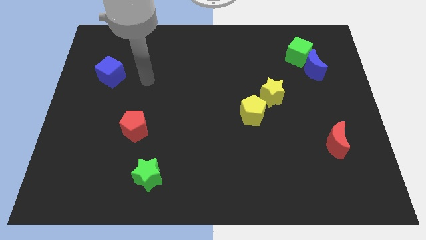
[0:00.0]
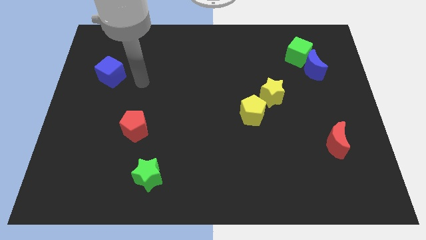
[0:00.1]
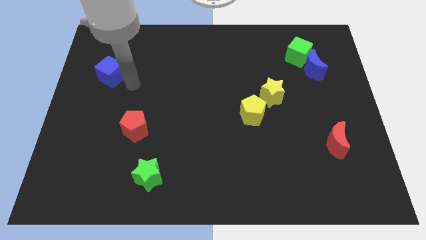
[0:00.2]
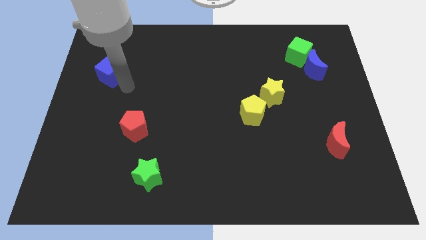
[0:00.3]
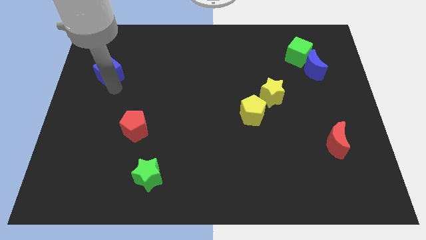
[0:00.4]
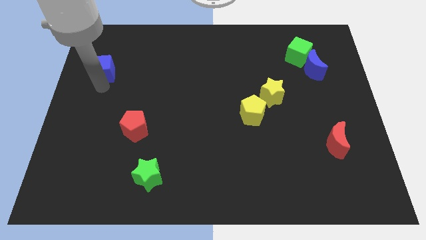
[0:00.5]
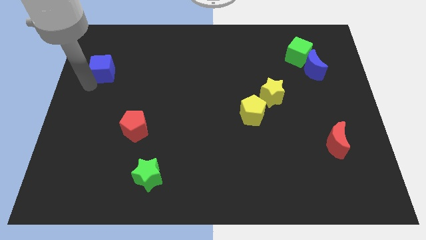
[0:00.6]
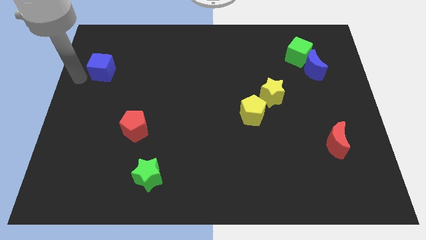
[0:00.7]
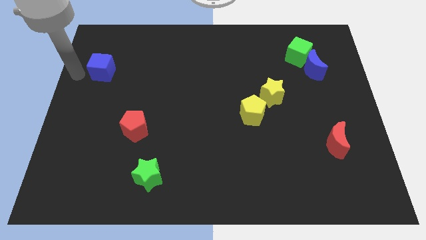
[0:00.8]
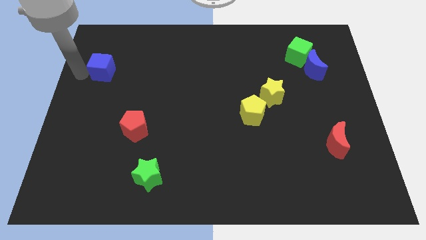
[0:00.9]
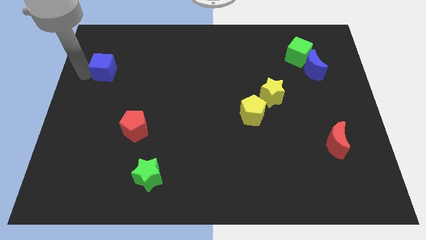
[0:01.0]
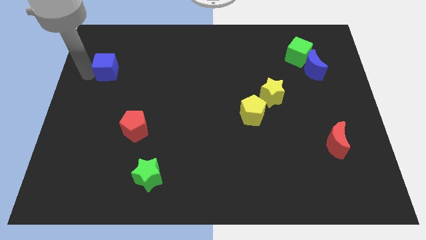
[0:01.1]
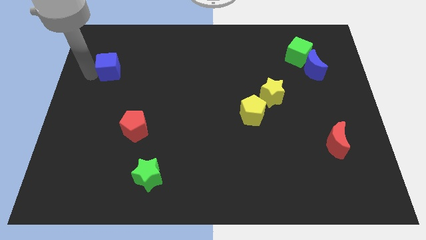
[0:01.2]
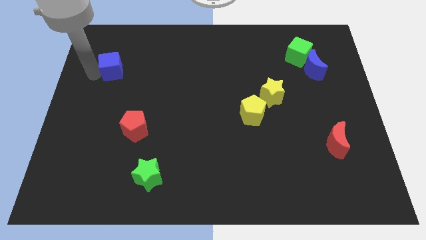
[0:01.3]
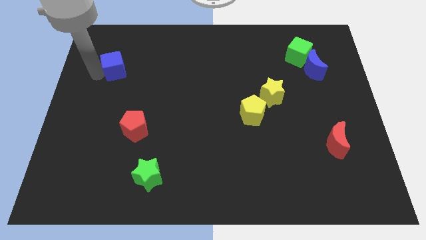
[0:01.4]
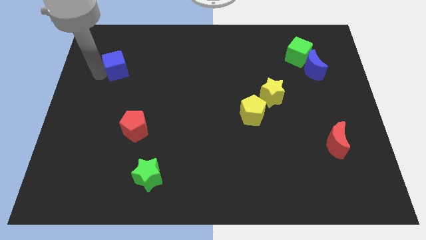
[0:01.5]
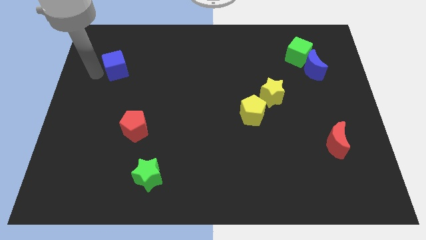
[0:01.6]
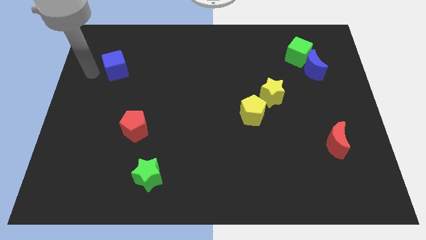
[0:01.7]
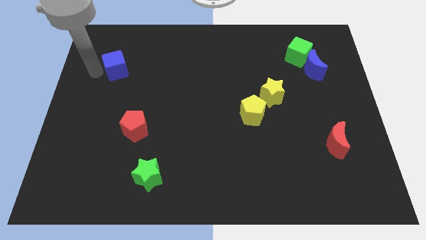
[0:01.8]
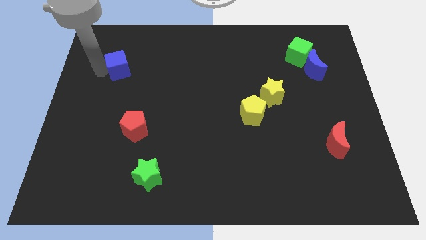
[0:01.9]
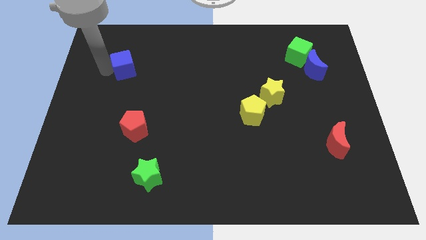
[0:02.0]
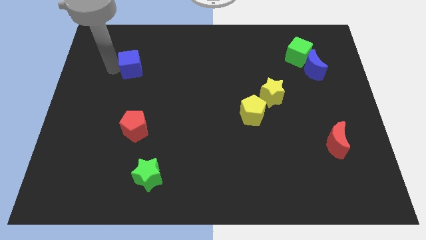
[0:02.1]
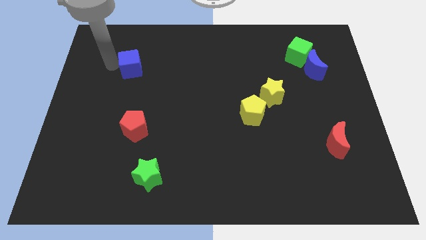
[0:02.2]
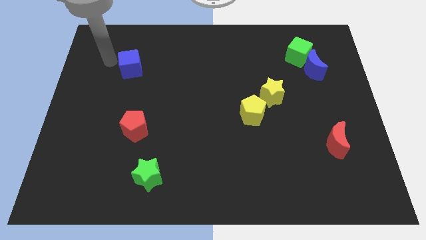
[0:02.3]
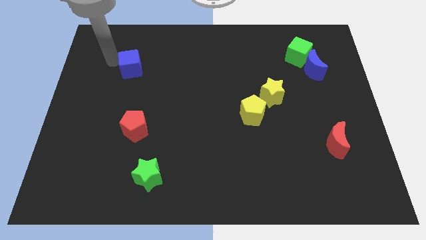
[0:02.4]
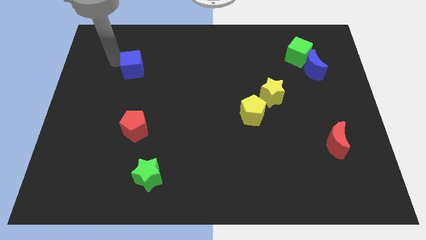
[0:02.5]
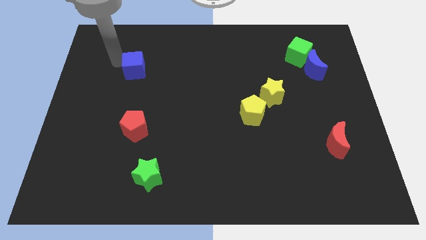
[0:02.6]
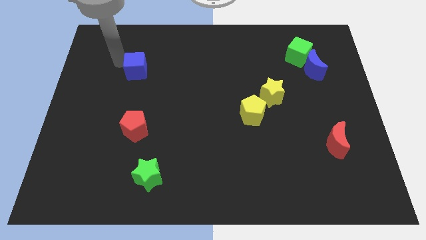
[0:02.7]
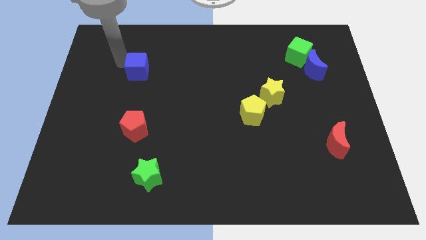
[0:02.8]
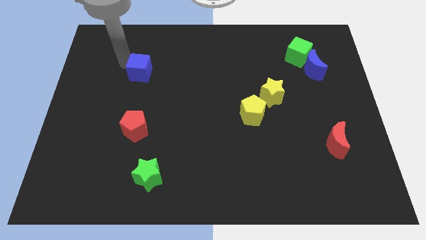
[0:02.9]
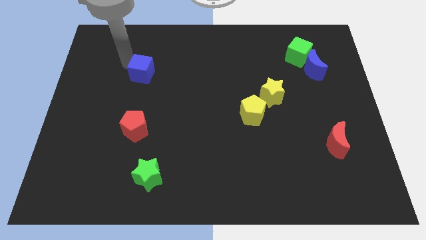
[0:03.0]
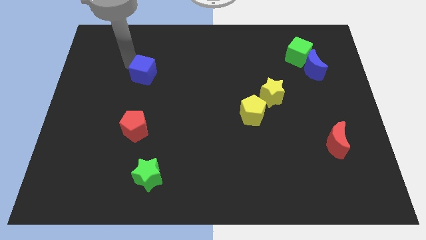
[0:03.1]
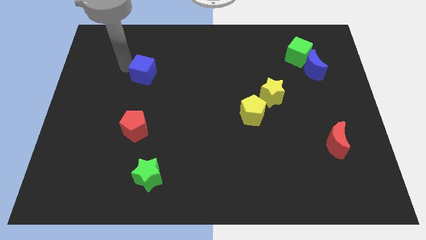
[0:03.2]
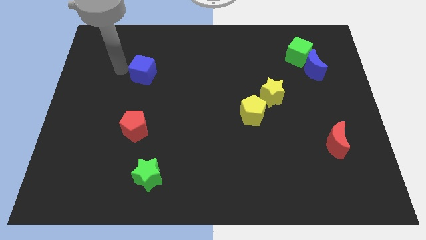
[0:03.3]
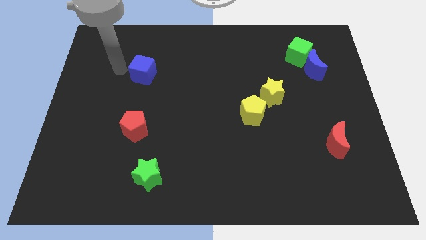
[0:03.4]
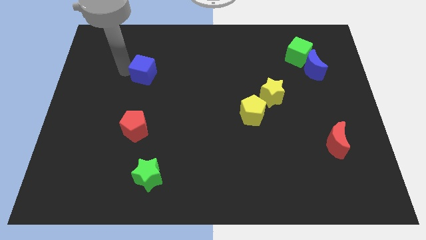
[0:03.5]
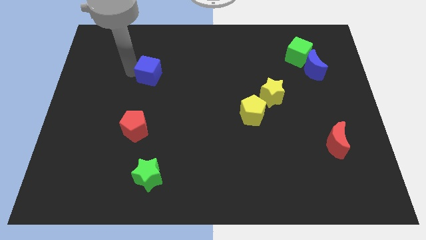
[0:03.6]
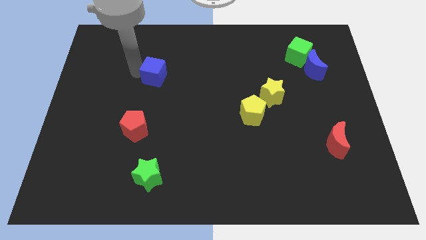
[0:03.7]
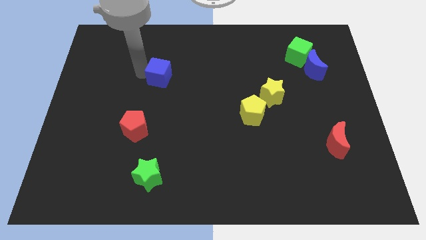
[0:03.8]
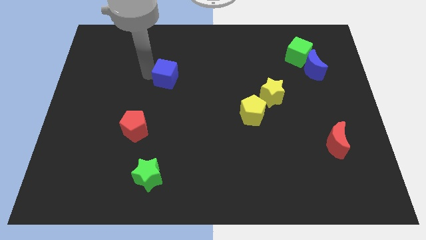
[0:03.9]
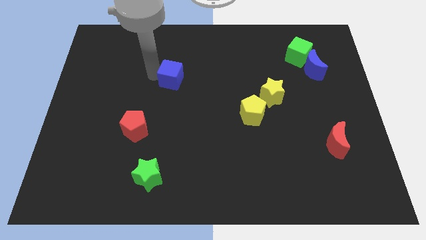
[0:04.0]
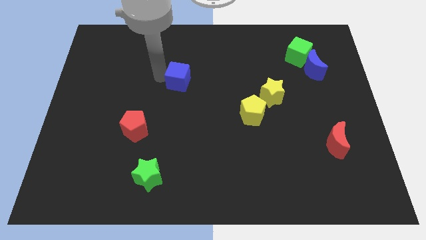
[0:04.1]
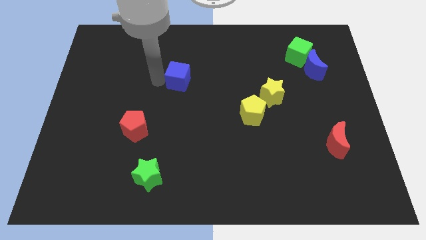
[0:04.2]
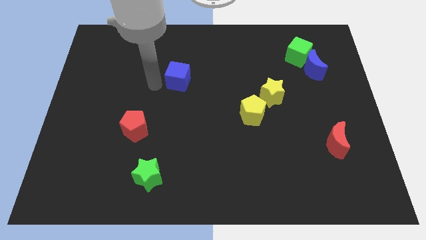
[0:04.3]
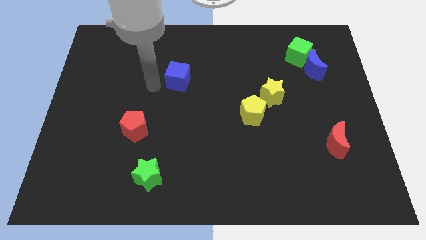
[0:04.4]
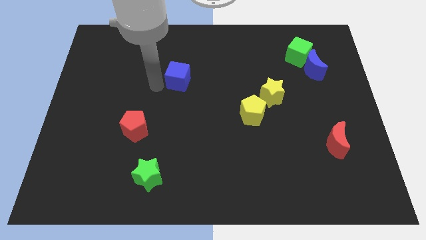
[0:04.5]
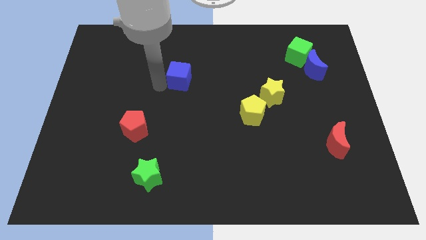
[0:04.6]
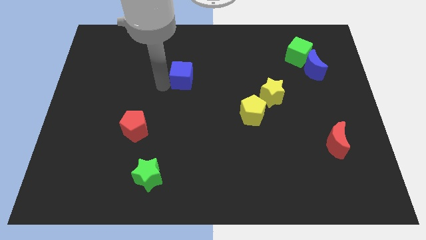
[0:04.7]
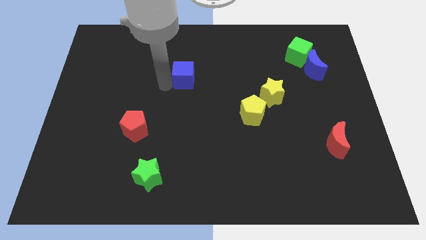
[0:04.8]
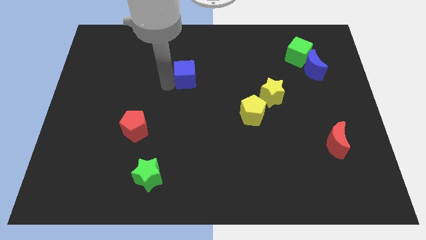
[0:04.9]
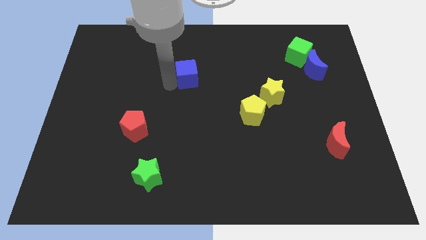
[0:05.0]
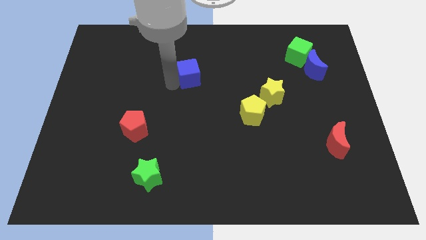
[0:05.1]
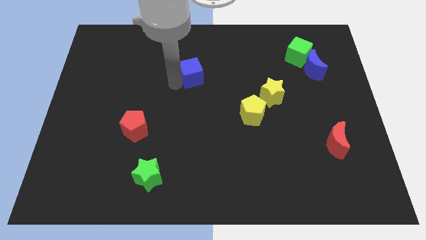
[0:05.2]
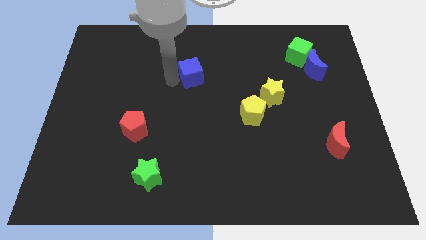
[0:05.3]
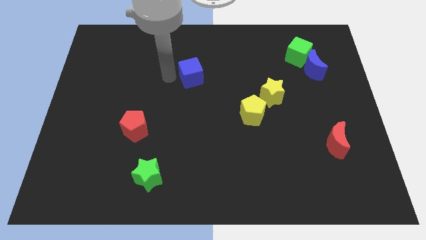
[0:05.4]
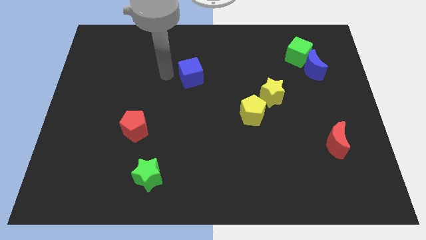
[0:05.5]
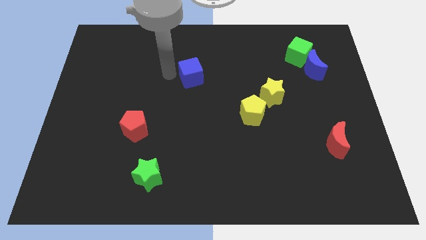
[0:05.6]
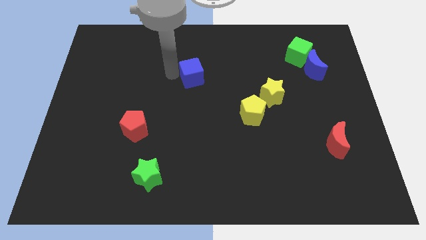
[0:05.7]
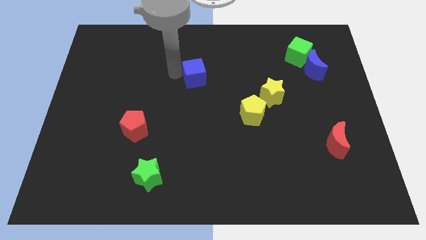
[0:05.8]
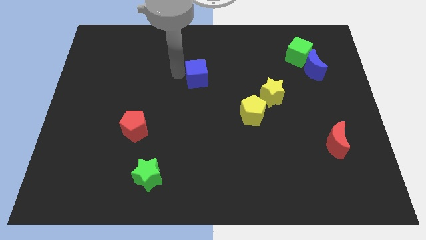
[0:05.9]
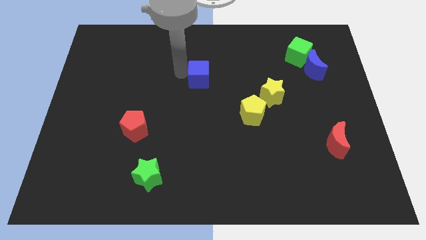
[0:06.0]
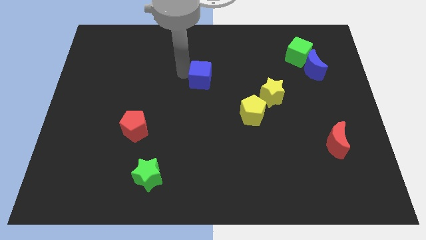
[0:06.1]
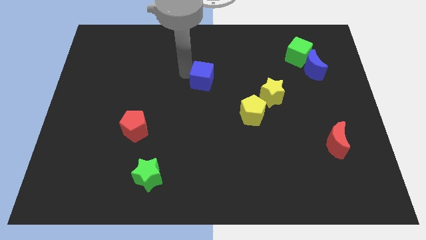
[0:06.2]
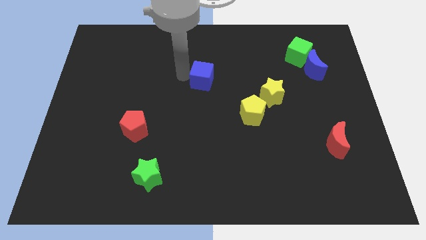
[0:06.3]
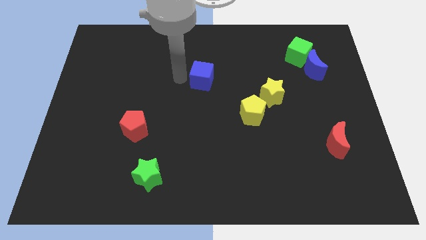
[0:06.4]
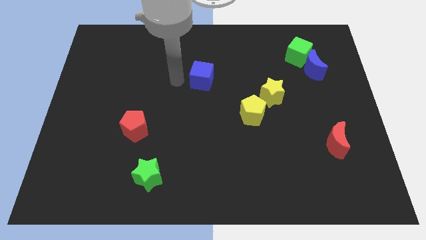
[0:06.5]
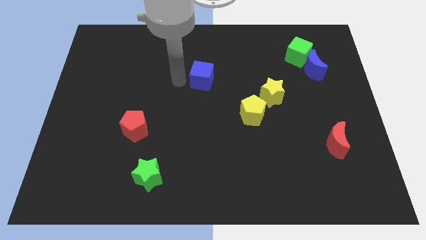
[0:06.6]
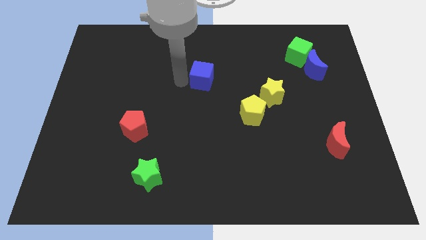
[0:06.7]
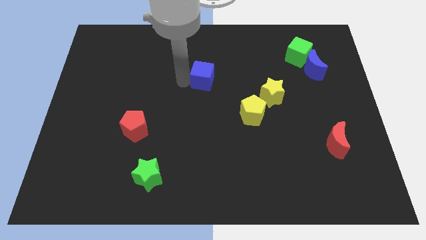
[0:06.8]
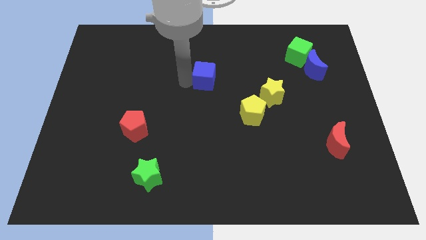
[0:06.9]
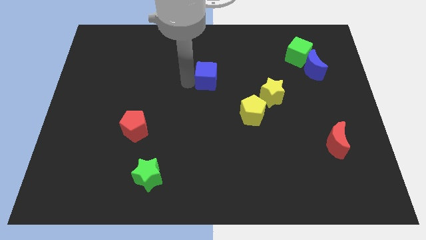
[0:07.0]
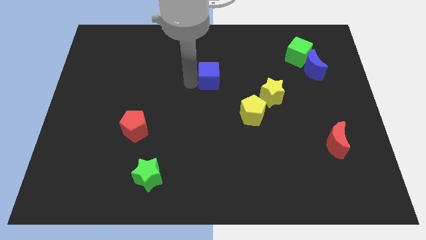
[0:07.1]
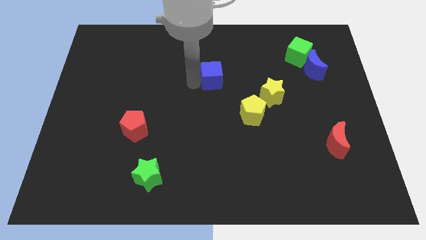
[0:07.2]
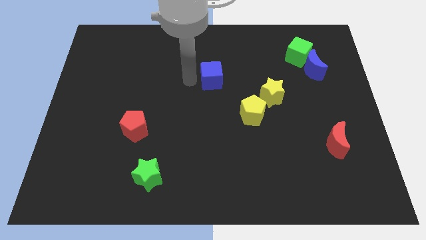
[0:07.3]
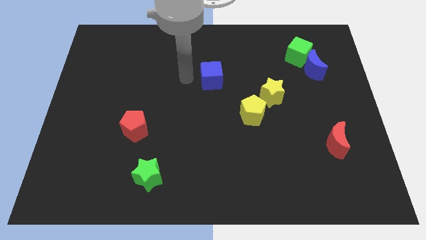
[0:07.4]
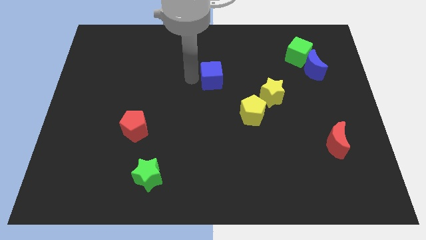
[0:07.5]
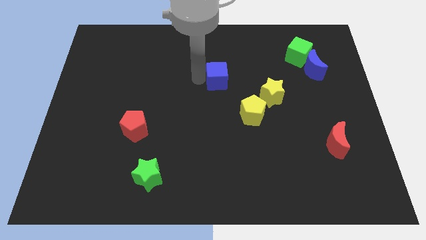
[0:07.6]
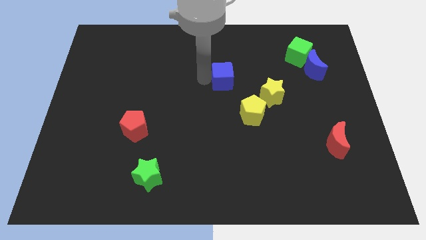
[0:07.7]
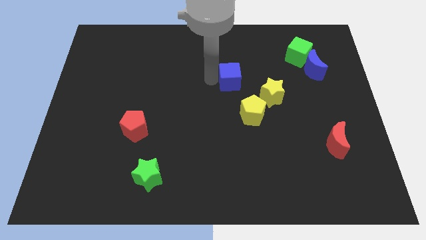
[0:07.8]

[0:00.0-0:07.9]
slide the blue cube to the top left of the yellow star
